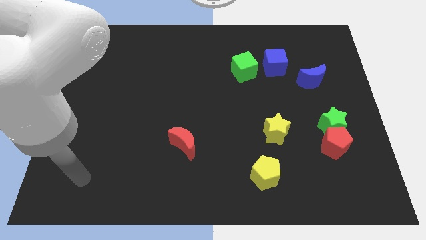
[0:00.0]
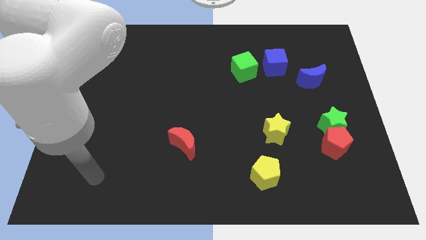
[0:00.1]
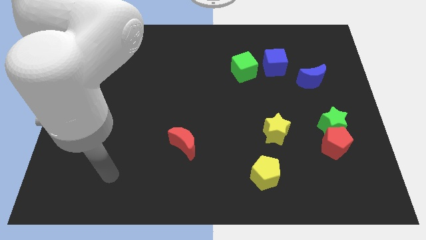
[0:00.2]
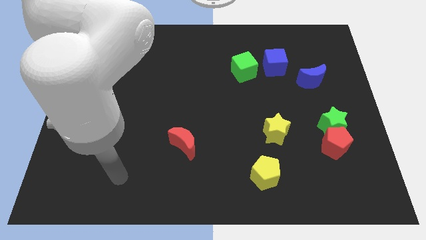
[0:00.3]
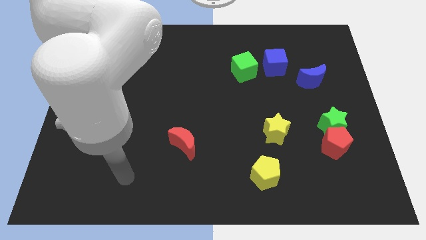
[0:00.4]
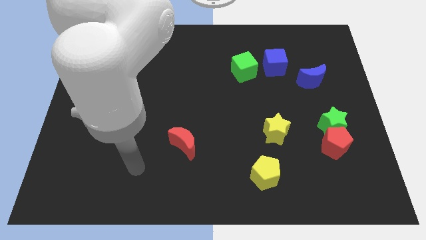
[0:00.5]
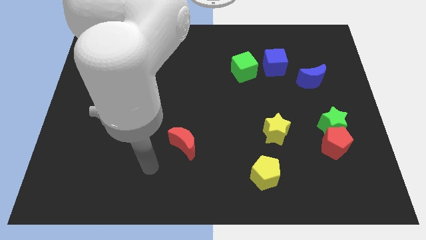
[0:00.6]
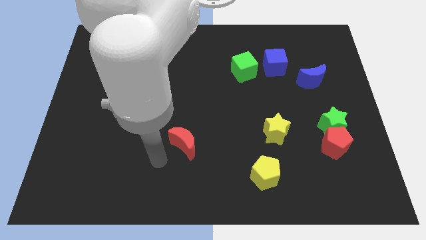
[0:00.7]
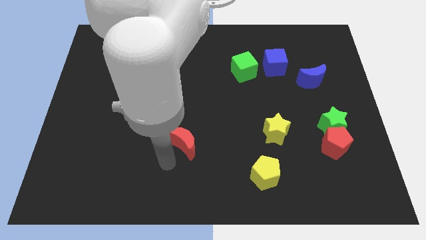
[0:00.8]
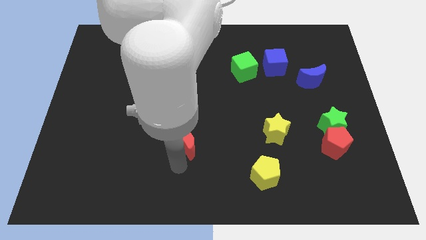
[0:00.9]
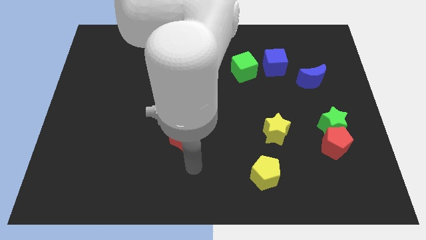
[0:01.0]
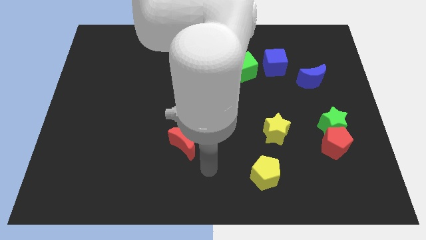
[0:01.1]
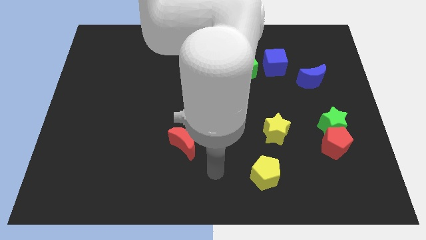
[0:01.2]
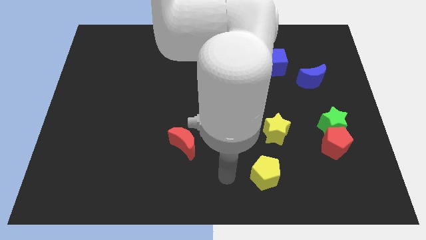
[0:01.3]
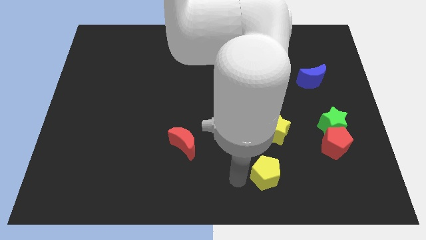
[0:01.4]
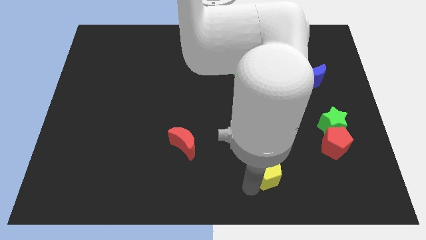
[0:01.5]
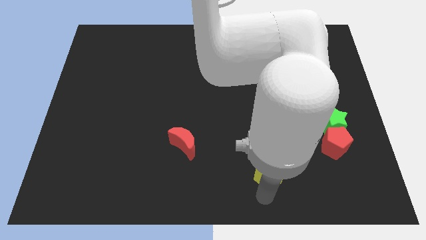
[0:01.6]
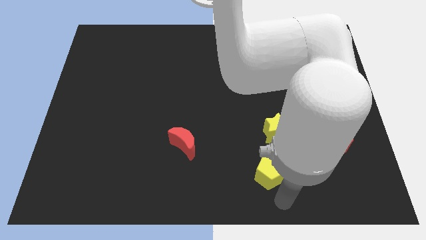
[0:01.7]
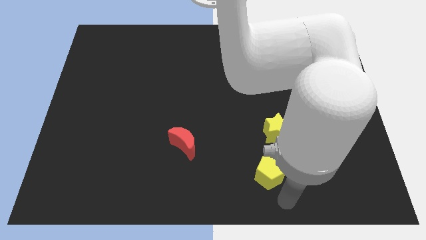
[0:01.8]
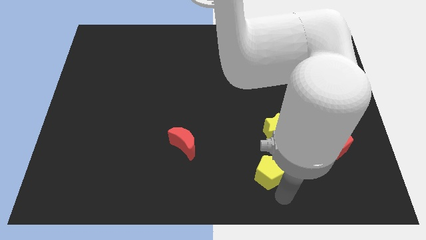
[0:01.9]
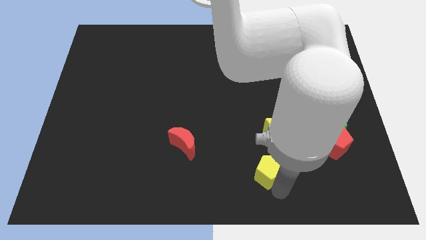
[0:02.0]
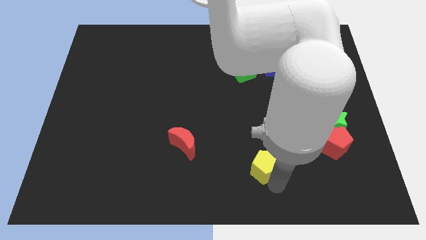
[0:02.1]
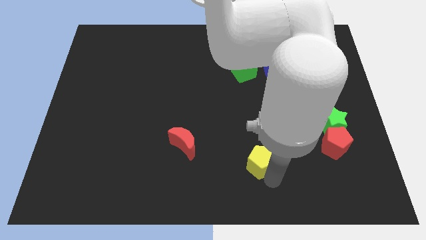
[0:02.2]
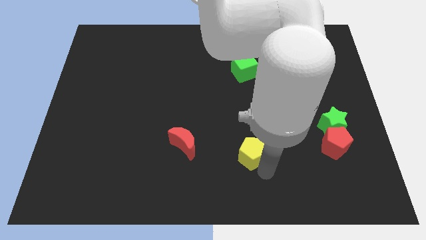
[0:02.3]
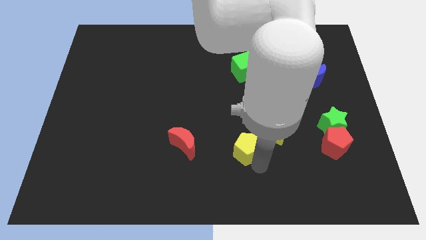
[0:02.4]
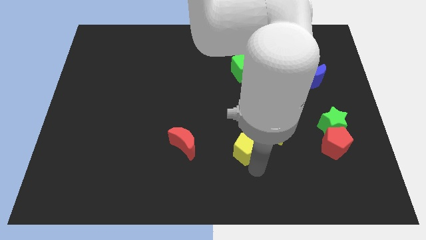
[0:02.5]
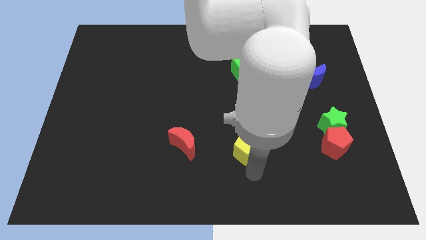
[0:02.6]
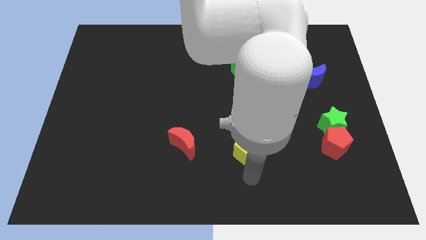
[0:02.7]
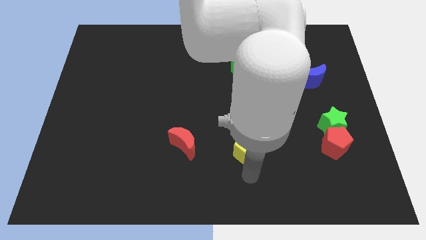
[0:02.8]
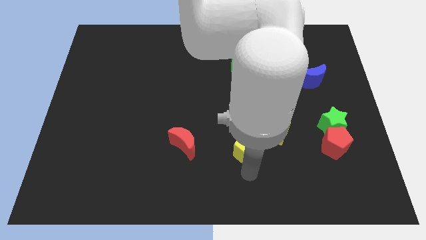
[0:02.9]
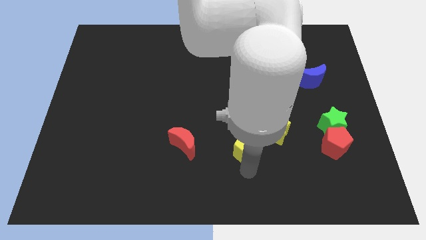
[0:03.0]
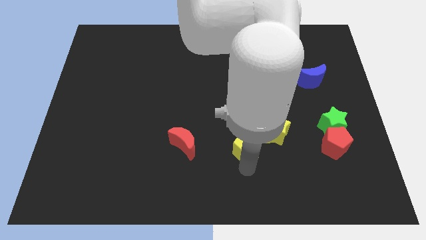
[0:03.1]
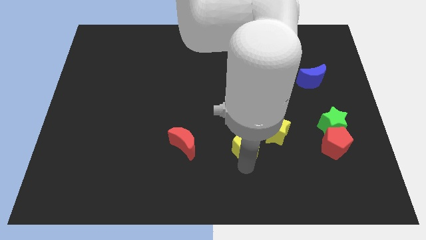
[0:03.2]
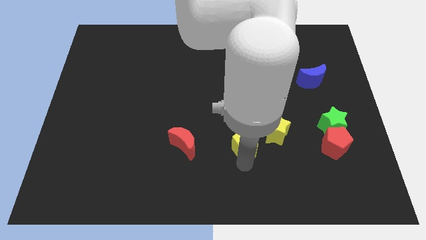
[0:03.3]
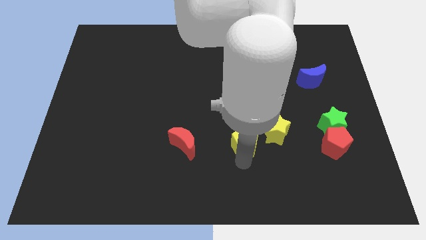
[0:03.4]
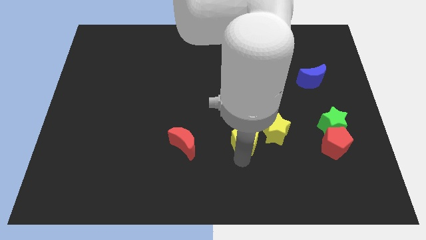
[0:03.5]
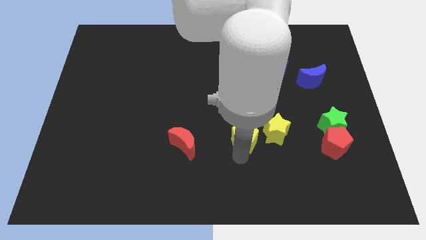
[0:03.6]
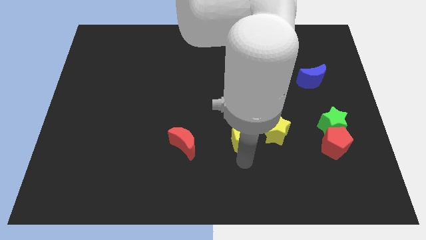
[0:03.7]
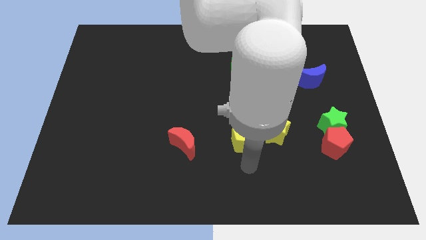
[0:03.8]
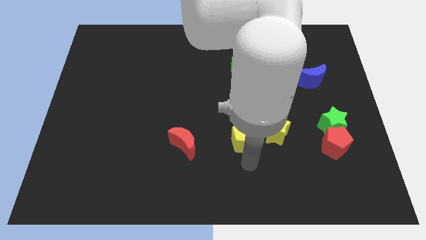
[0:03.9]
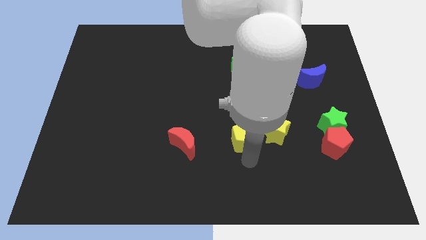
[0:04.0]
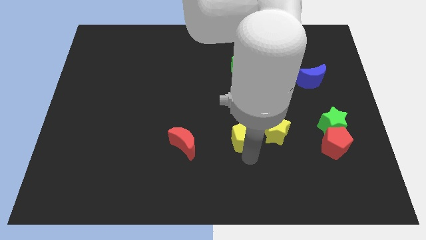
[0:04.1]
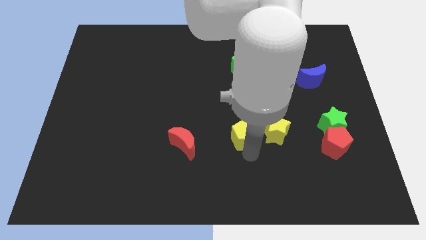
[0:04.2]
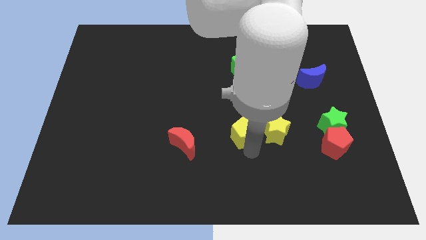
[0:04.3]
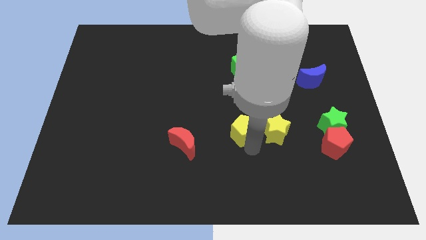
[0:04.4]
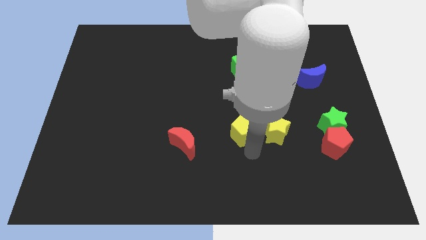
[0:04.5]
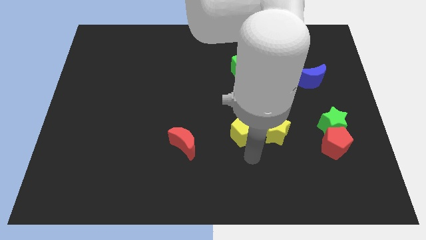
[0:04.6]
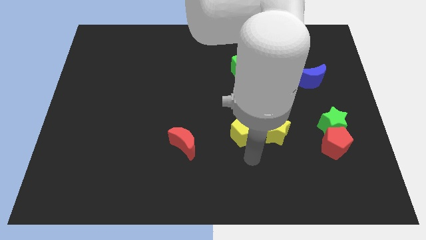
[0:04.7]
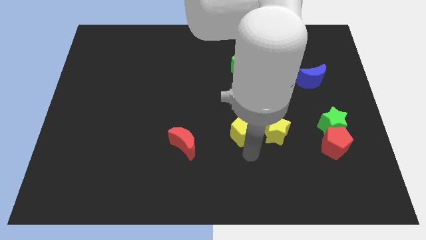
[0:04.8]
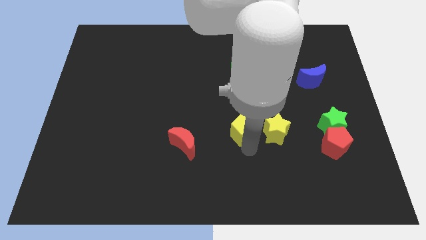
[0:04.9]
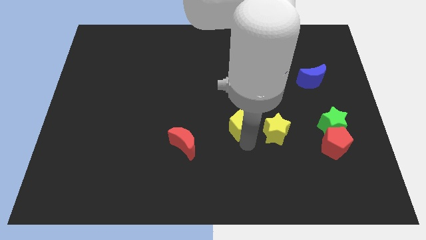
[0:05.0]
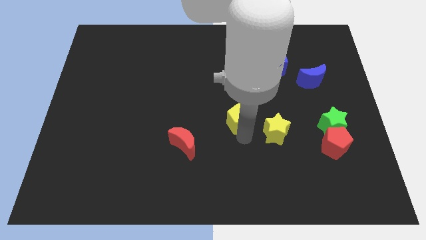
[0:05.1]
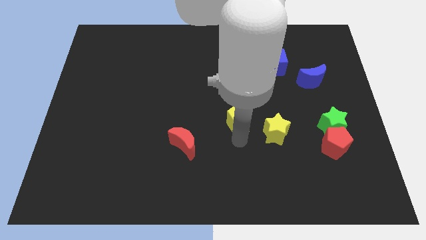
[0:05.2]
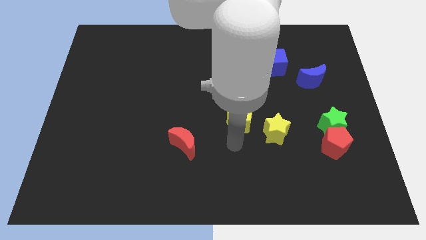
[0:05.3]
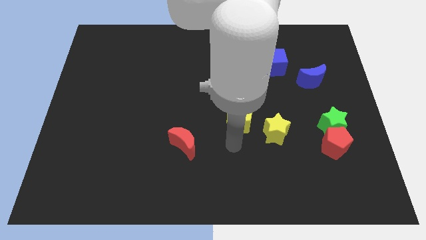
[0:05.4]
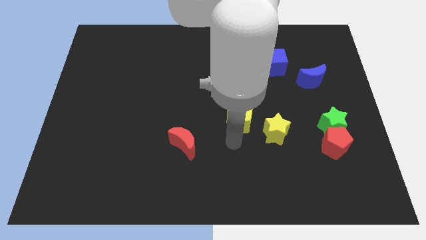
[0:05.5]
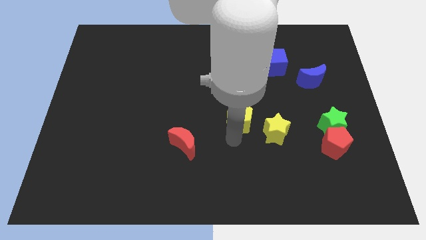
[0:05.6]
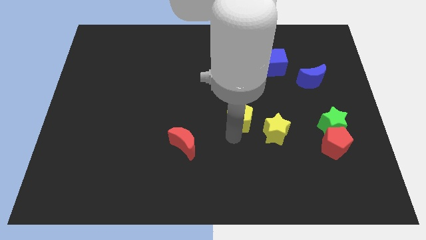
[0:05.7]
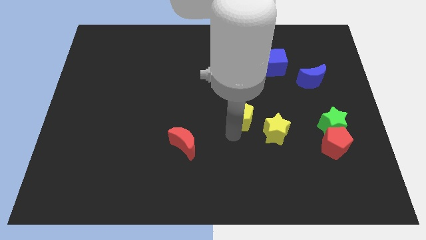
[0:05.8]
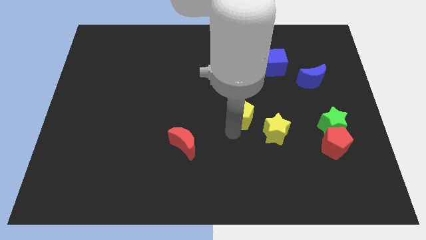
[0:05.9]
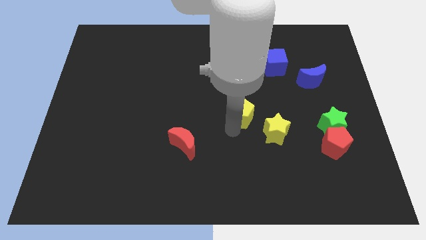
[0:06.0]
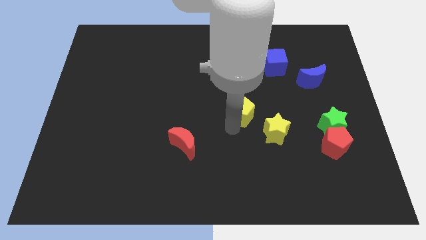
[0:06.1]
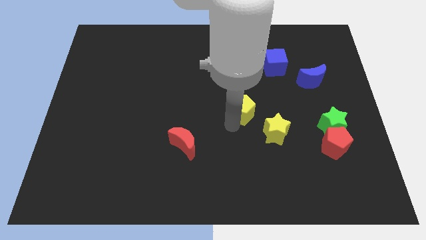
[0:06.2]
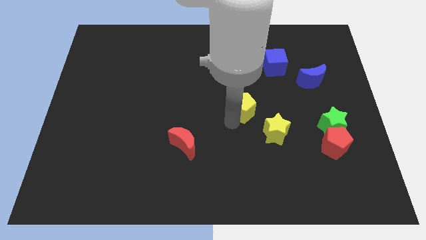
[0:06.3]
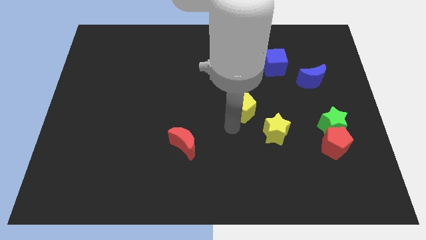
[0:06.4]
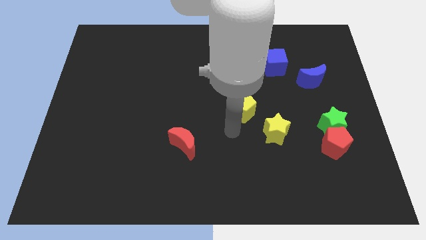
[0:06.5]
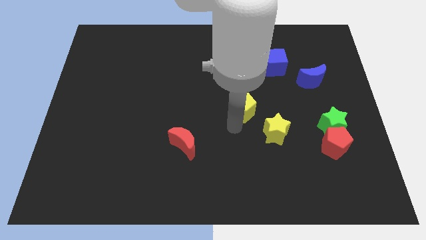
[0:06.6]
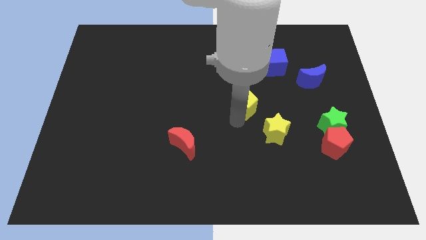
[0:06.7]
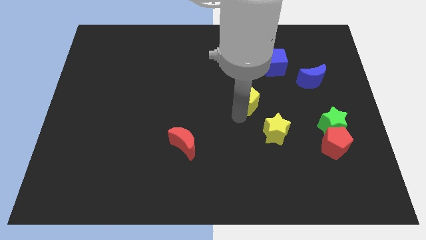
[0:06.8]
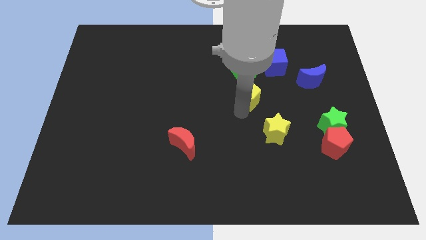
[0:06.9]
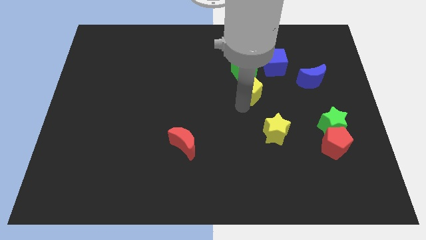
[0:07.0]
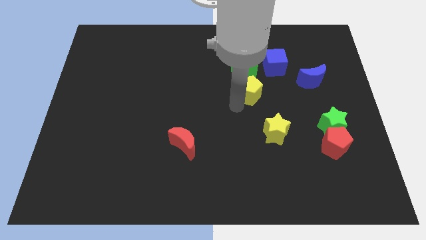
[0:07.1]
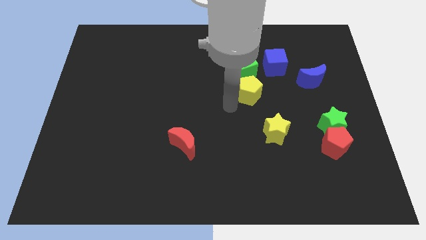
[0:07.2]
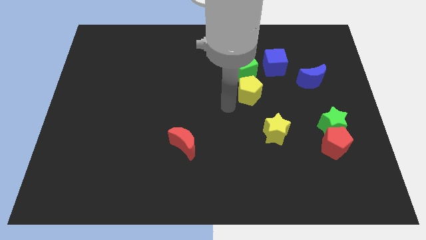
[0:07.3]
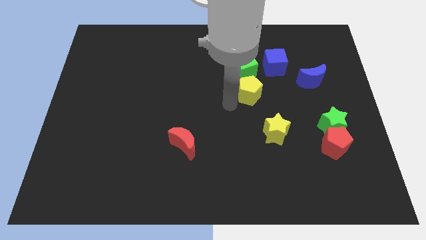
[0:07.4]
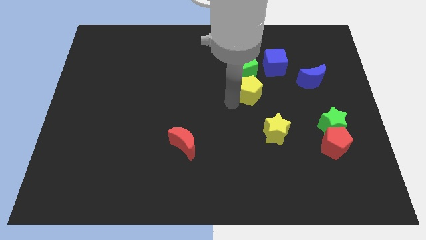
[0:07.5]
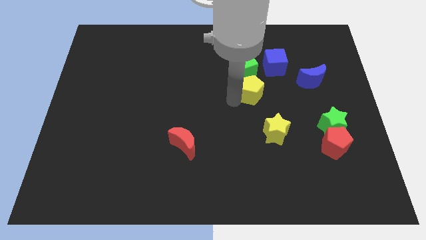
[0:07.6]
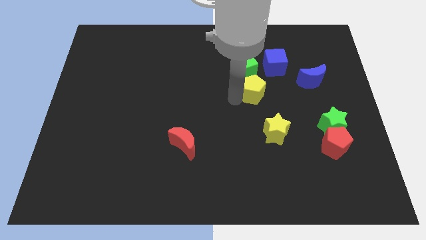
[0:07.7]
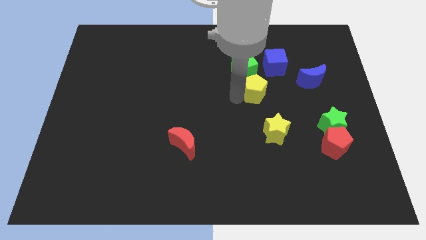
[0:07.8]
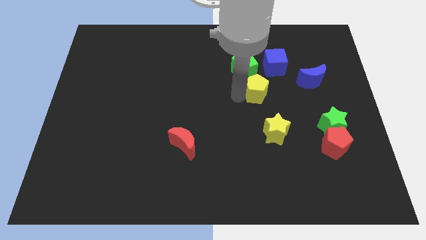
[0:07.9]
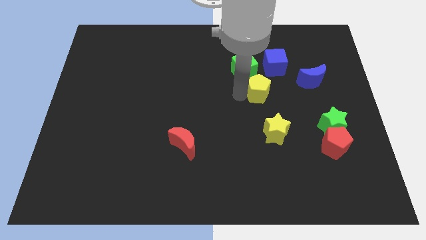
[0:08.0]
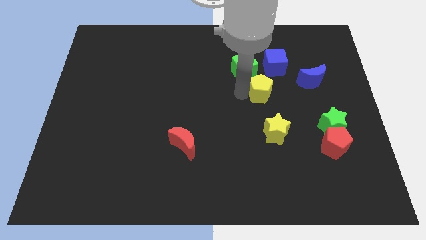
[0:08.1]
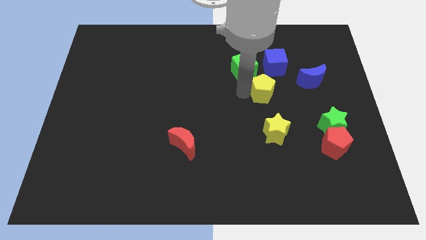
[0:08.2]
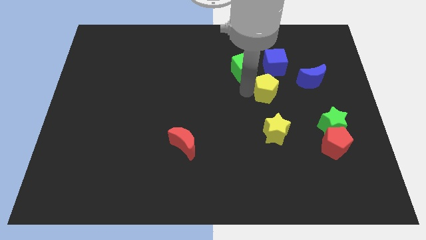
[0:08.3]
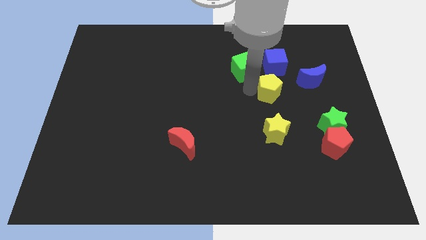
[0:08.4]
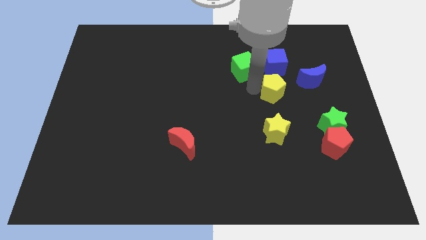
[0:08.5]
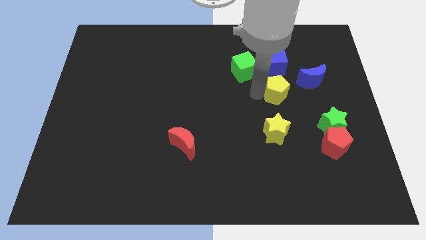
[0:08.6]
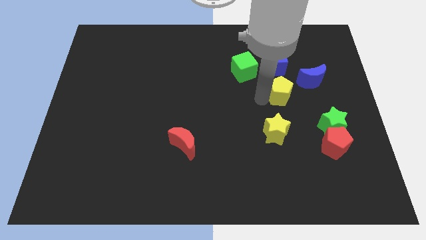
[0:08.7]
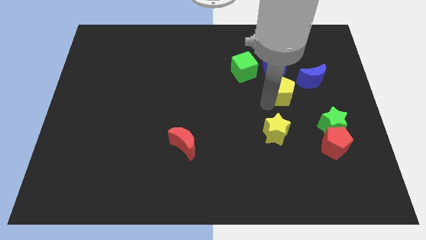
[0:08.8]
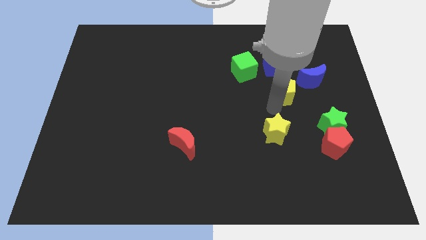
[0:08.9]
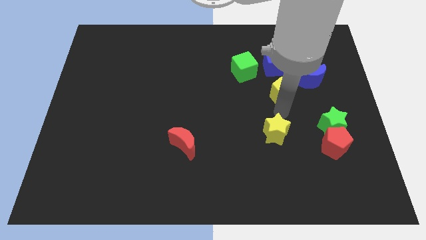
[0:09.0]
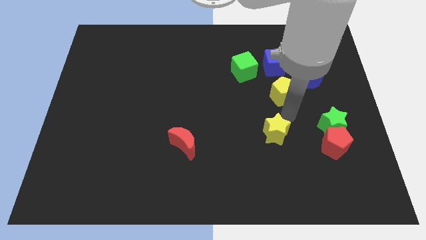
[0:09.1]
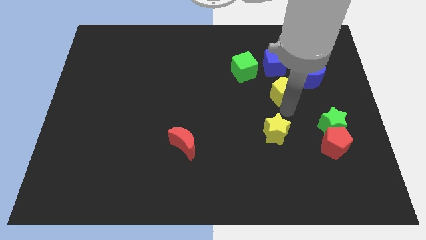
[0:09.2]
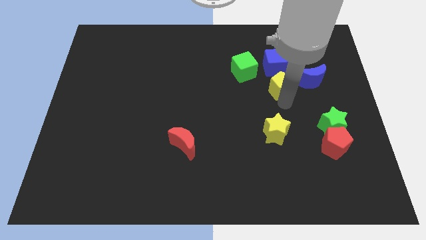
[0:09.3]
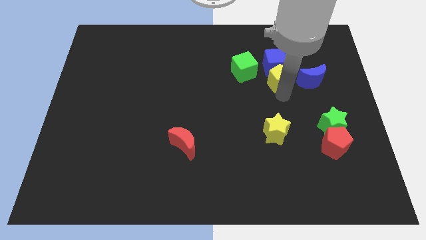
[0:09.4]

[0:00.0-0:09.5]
put the yellow pentagon to the blue cube
